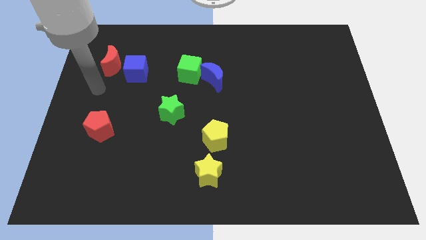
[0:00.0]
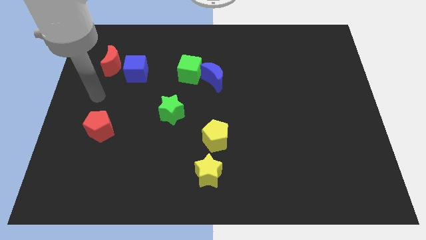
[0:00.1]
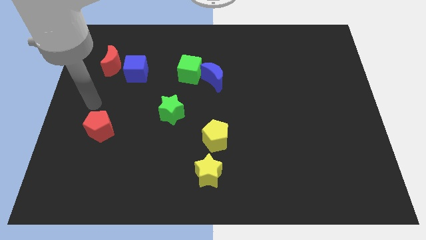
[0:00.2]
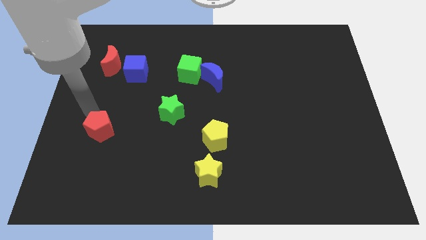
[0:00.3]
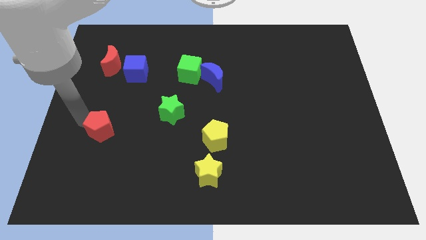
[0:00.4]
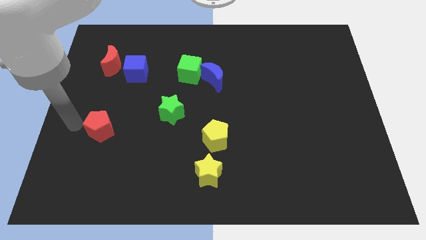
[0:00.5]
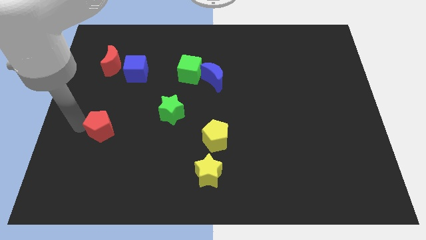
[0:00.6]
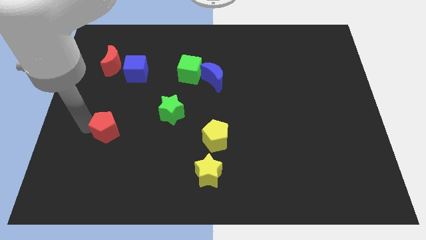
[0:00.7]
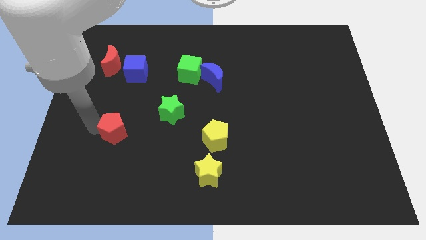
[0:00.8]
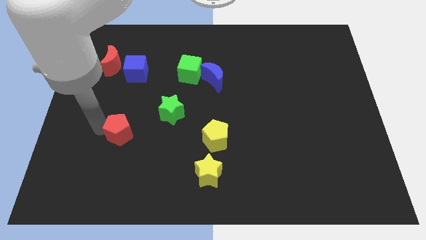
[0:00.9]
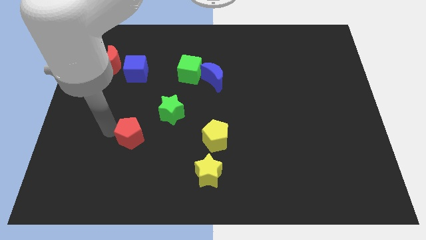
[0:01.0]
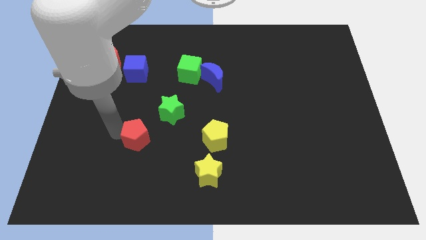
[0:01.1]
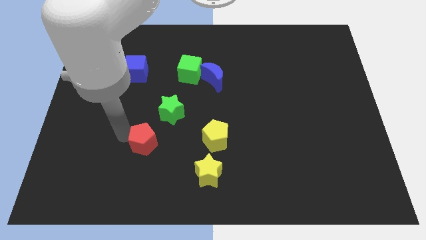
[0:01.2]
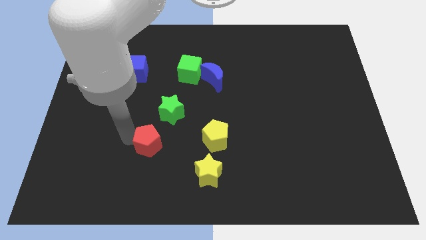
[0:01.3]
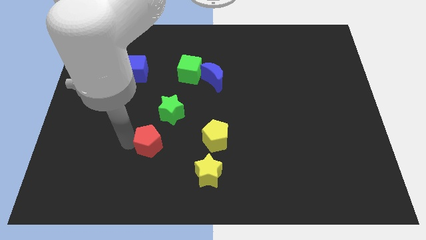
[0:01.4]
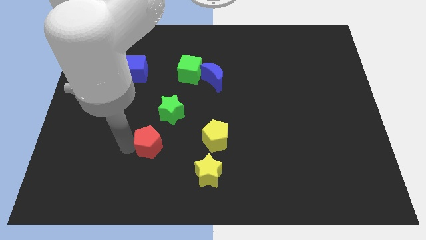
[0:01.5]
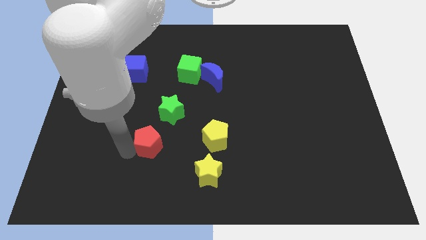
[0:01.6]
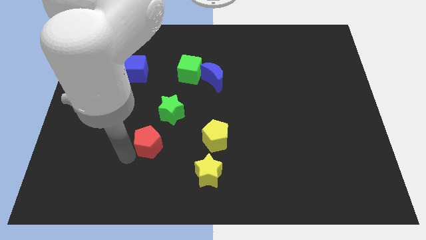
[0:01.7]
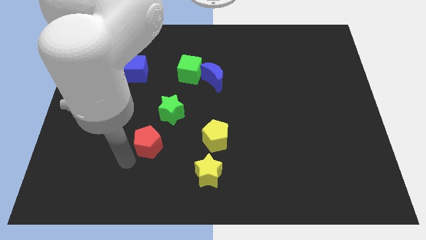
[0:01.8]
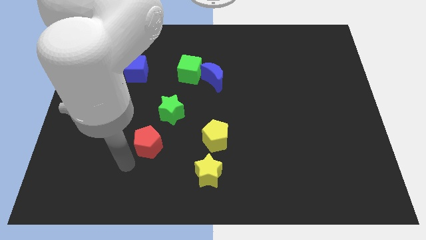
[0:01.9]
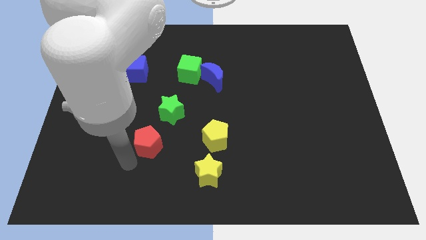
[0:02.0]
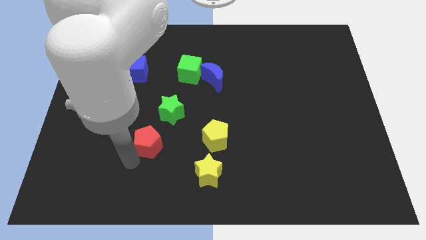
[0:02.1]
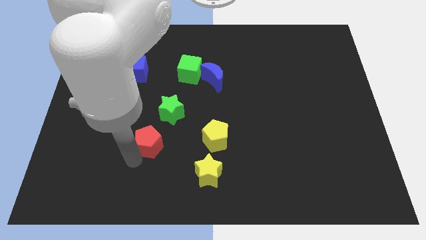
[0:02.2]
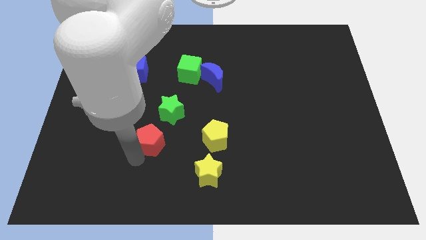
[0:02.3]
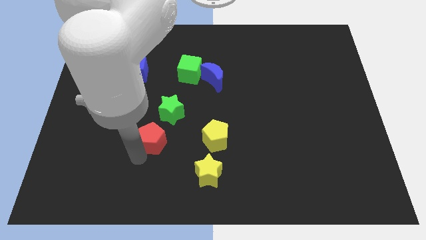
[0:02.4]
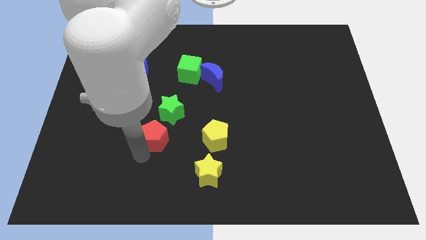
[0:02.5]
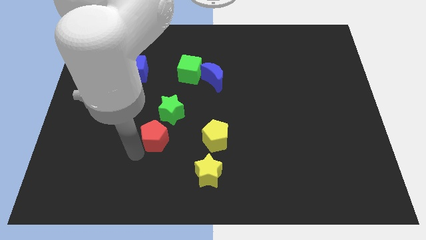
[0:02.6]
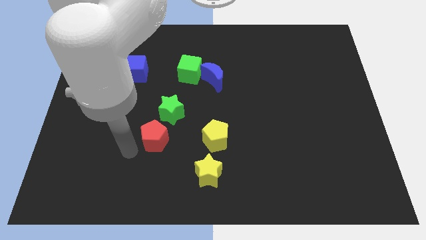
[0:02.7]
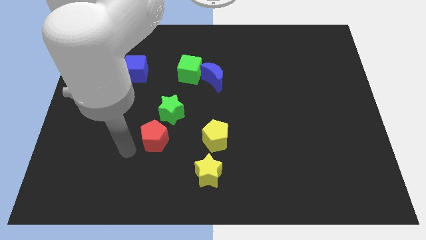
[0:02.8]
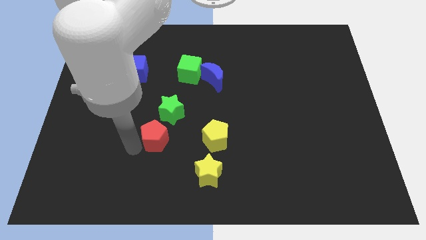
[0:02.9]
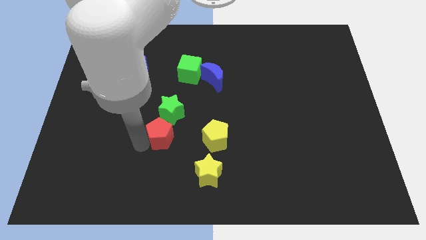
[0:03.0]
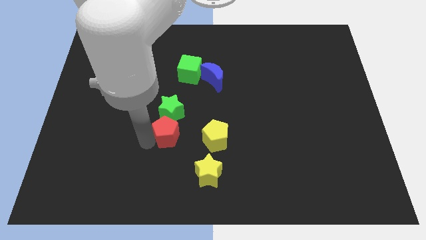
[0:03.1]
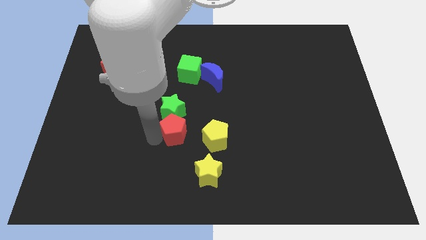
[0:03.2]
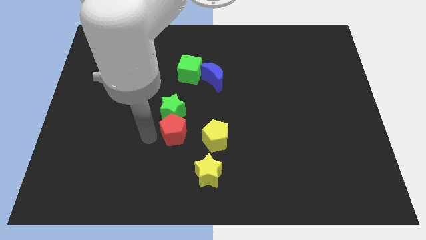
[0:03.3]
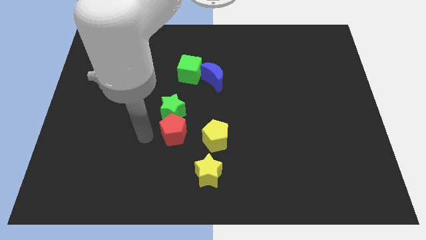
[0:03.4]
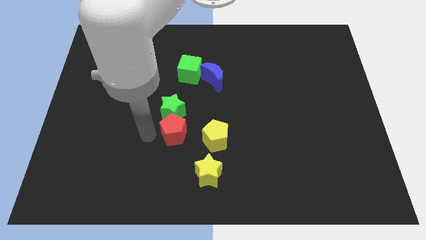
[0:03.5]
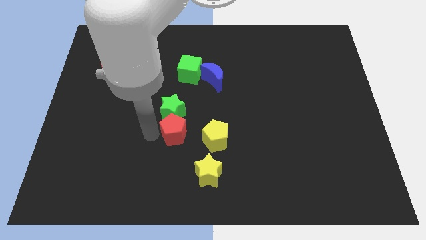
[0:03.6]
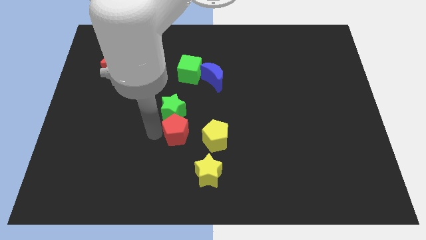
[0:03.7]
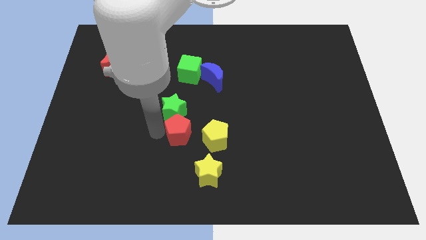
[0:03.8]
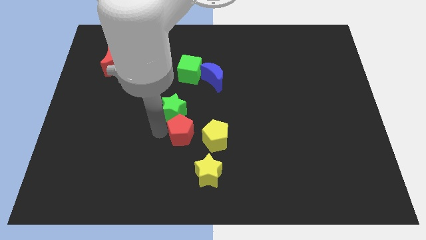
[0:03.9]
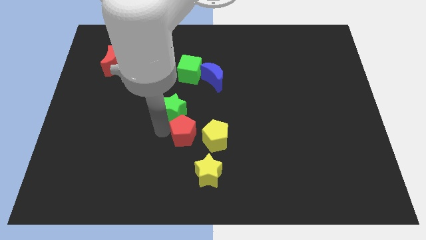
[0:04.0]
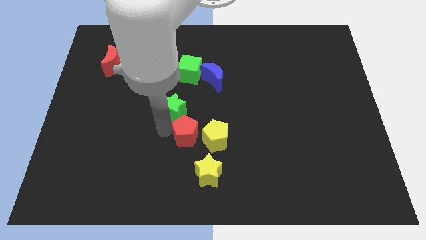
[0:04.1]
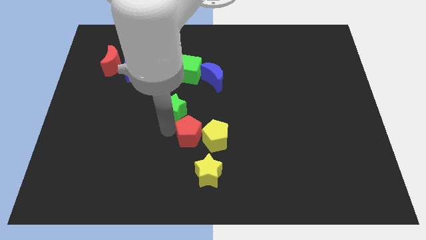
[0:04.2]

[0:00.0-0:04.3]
move the red pentagon towards the yellow pentagon

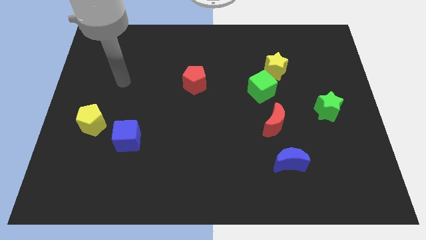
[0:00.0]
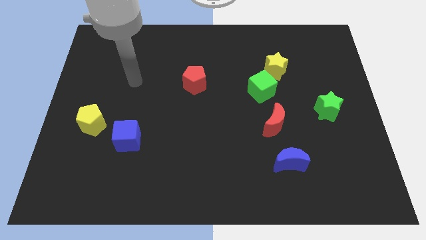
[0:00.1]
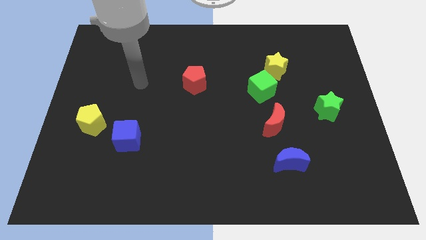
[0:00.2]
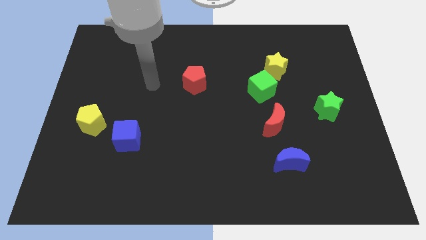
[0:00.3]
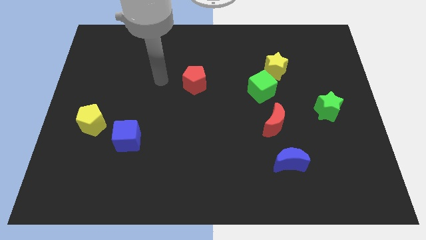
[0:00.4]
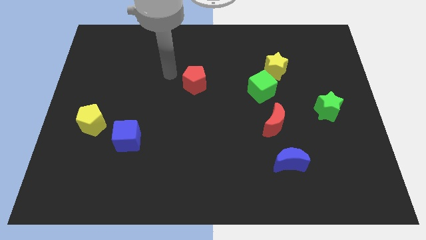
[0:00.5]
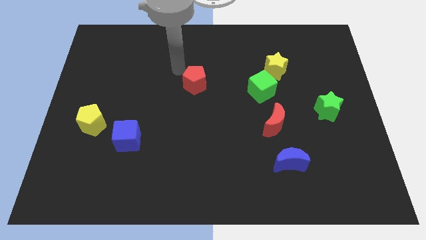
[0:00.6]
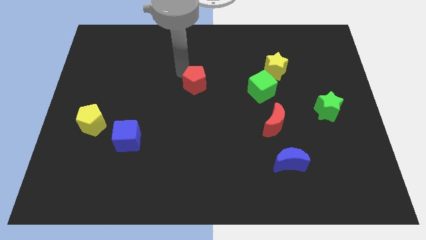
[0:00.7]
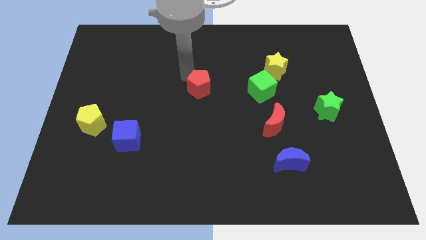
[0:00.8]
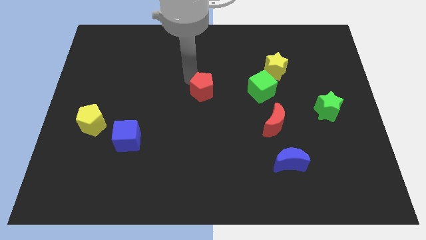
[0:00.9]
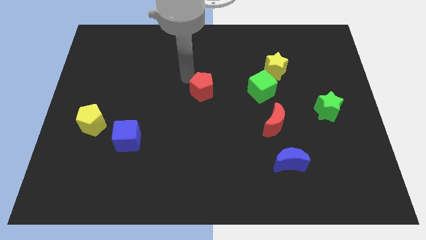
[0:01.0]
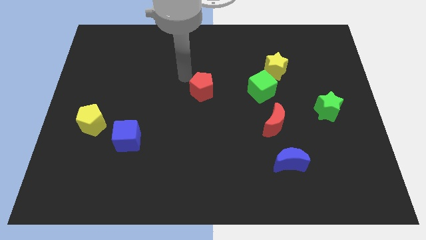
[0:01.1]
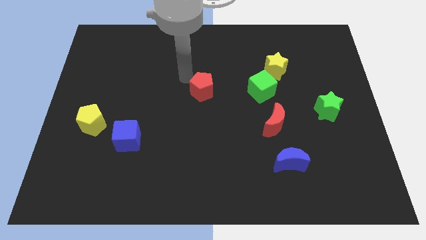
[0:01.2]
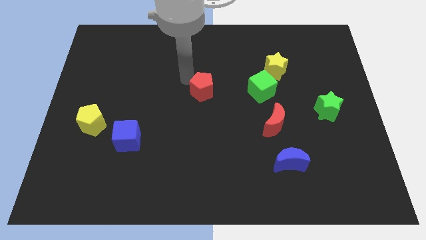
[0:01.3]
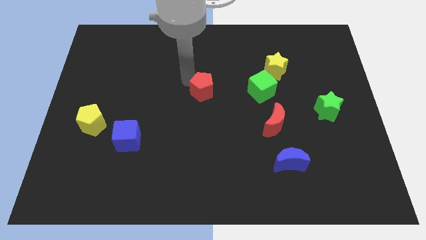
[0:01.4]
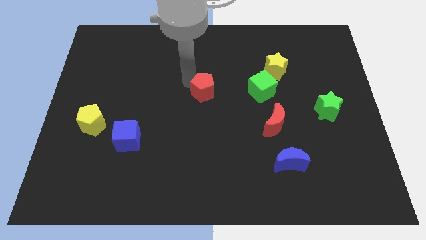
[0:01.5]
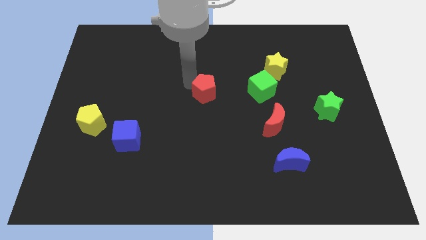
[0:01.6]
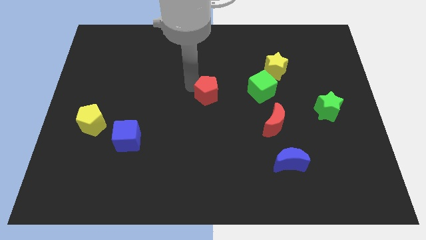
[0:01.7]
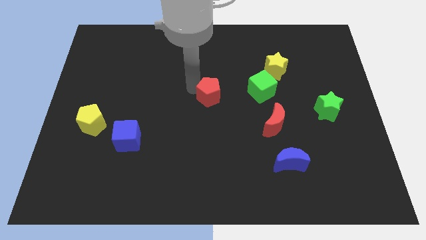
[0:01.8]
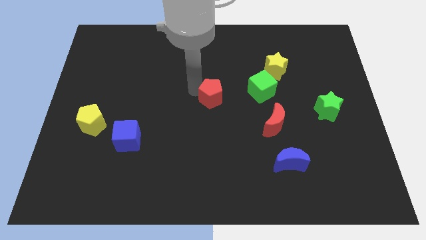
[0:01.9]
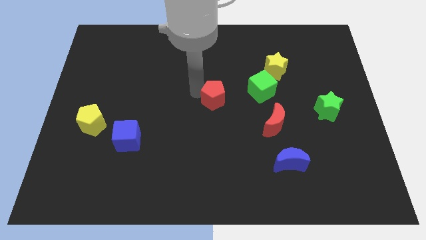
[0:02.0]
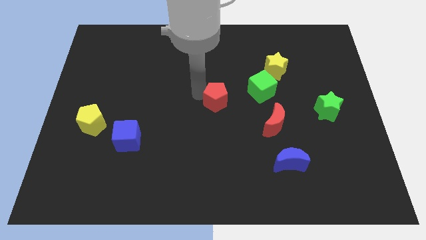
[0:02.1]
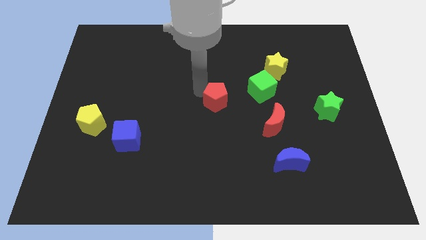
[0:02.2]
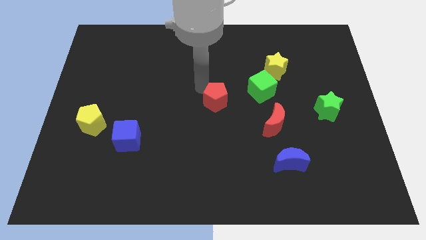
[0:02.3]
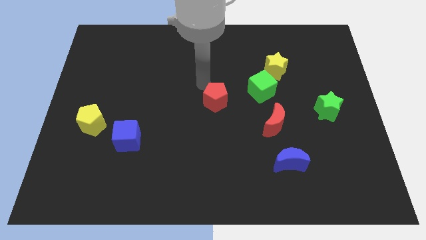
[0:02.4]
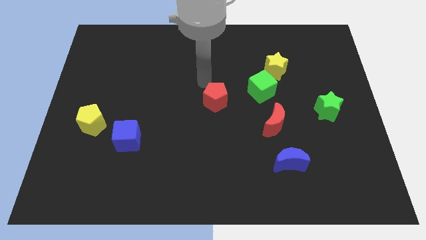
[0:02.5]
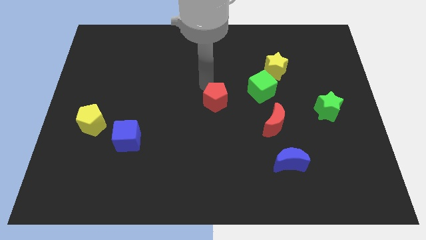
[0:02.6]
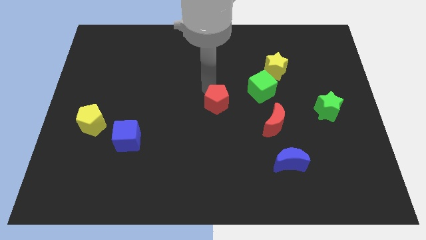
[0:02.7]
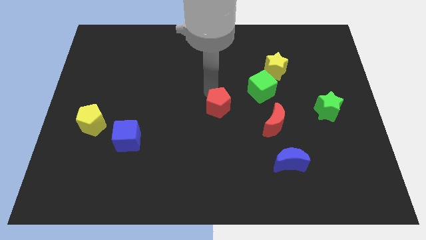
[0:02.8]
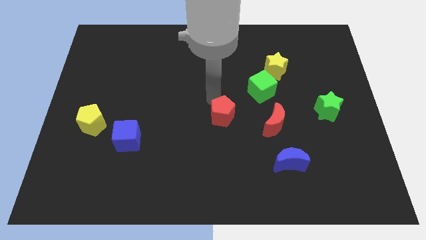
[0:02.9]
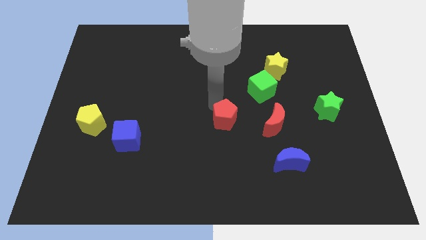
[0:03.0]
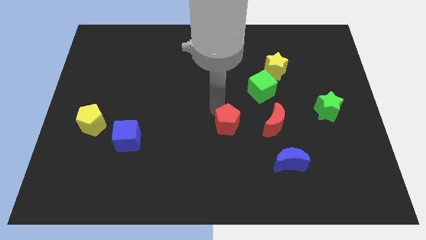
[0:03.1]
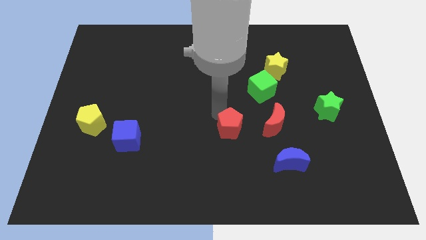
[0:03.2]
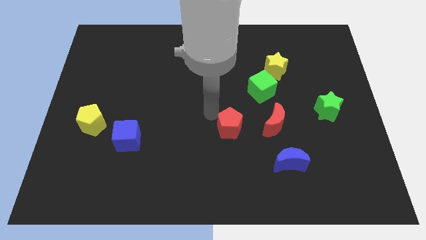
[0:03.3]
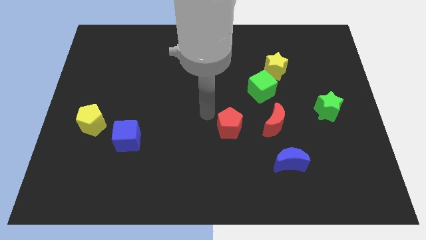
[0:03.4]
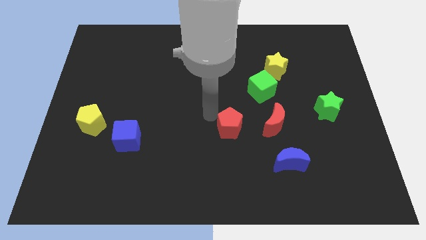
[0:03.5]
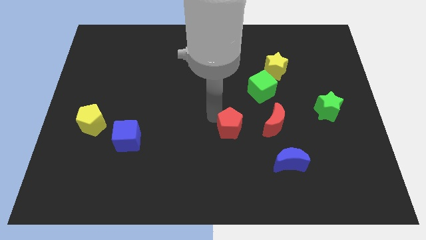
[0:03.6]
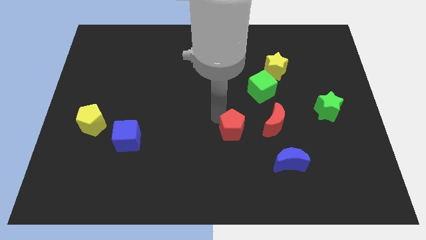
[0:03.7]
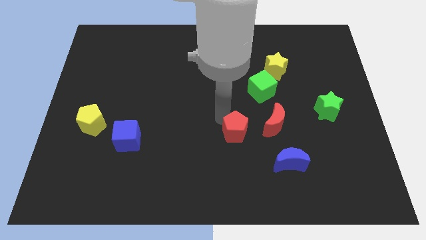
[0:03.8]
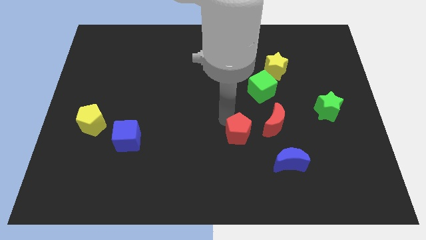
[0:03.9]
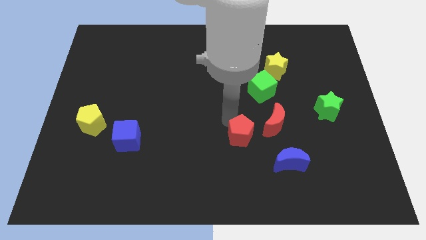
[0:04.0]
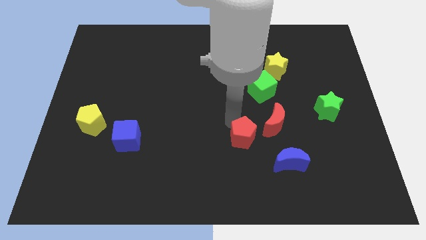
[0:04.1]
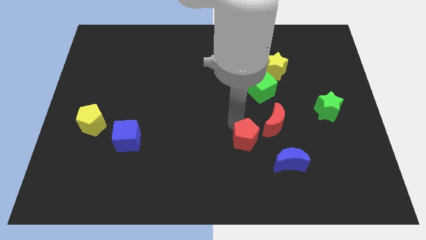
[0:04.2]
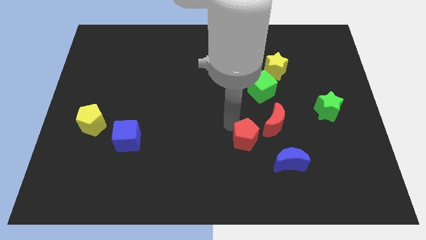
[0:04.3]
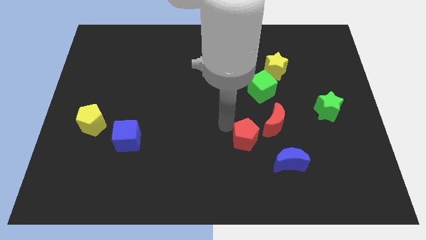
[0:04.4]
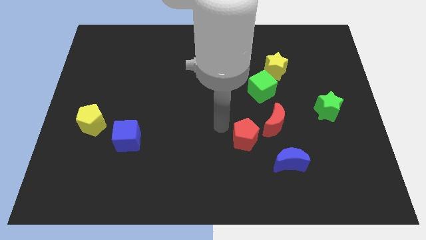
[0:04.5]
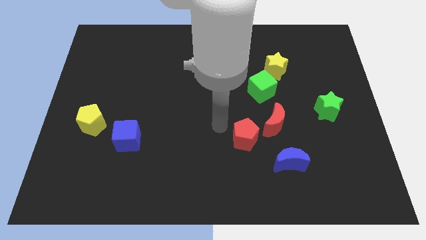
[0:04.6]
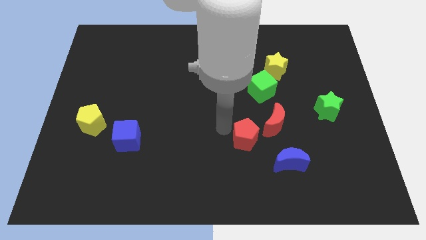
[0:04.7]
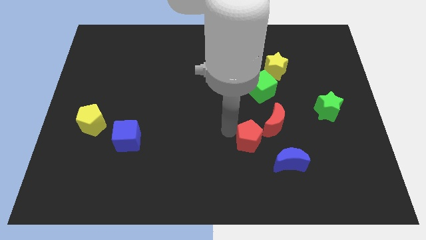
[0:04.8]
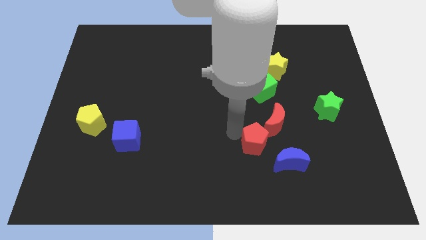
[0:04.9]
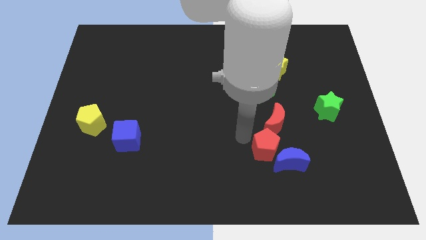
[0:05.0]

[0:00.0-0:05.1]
push the red pentagon close to the blue moon
